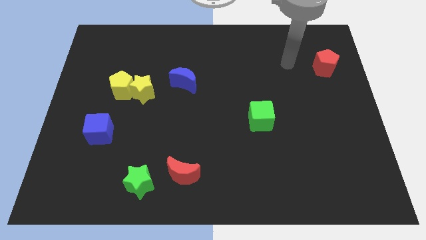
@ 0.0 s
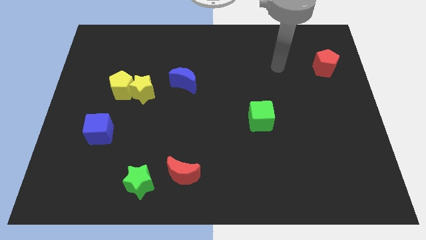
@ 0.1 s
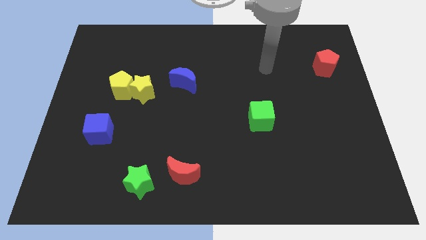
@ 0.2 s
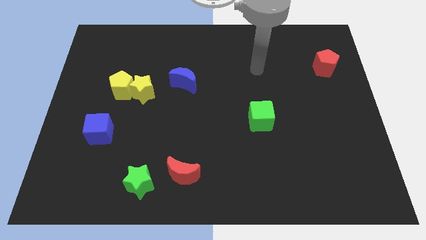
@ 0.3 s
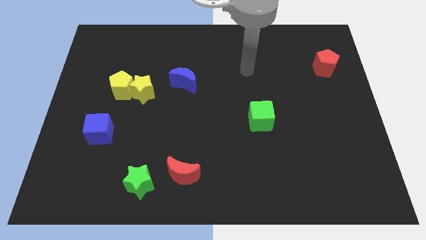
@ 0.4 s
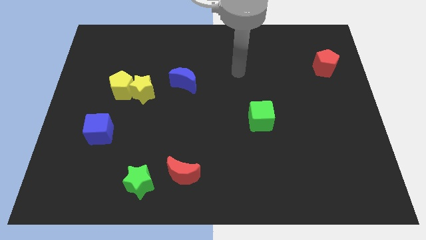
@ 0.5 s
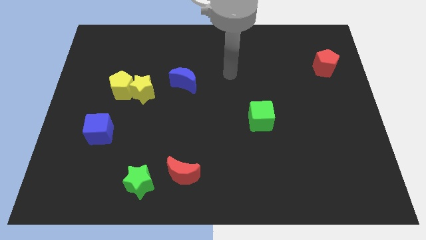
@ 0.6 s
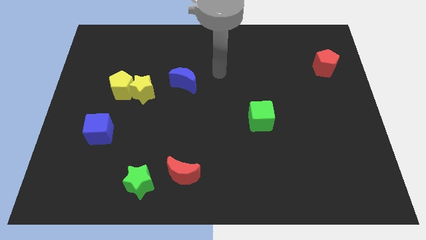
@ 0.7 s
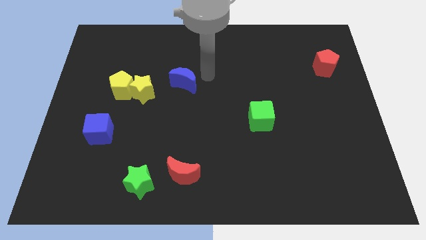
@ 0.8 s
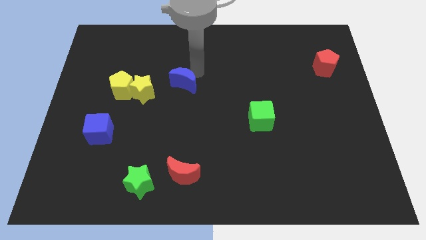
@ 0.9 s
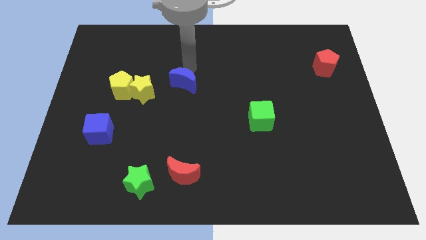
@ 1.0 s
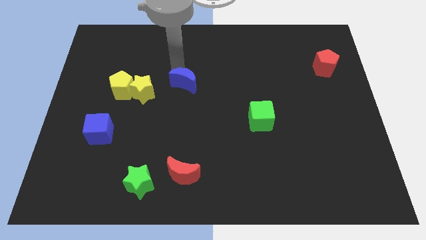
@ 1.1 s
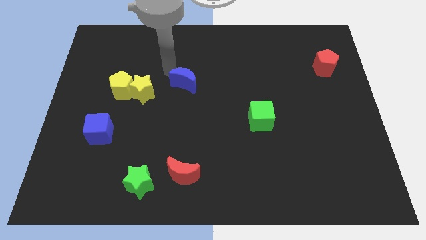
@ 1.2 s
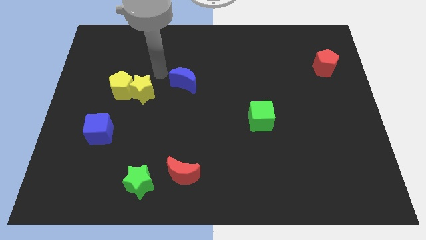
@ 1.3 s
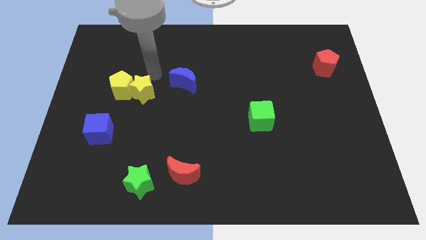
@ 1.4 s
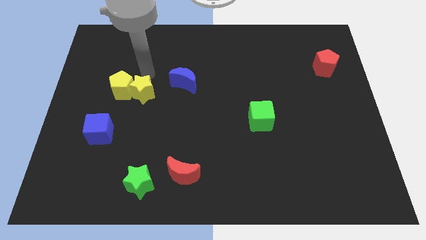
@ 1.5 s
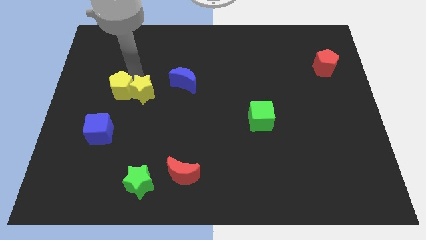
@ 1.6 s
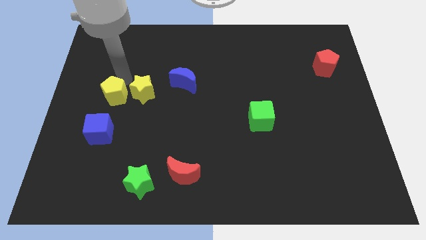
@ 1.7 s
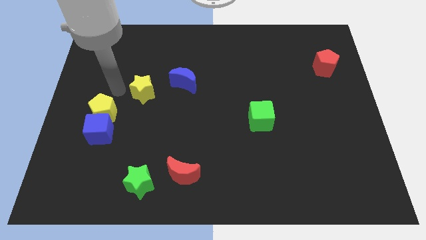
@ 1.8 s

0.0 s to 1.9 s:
move the yellow star away from the yellow pentagon

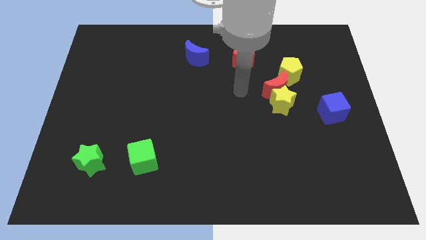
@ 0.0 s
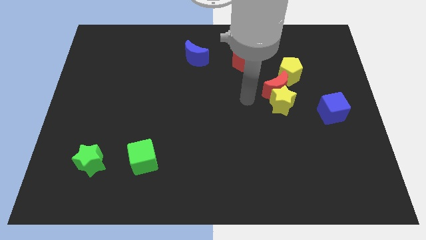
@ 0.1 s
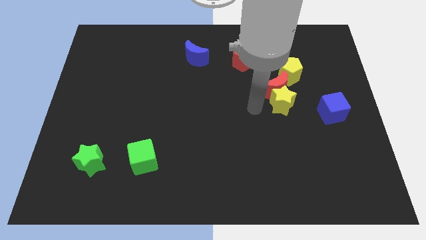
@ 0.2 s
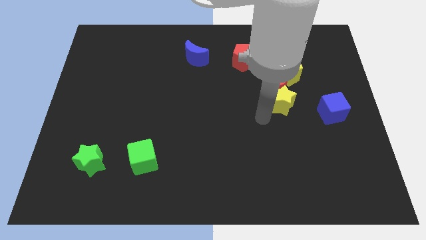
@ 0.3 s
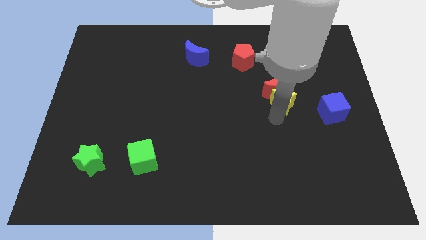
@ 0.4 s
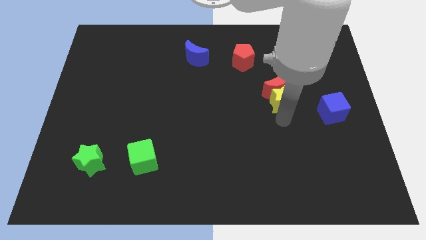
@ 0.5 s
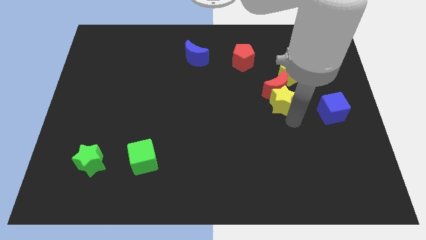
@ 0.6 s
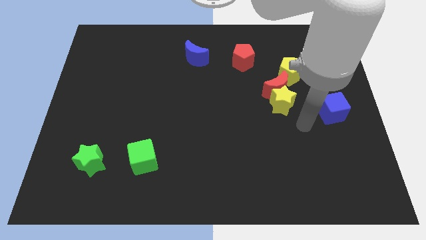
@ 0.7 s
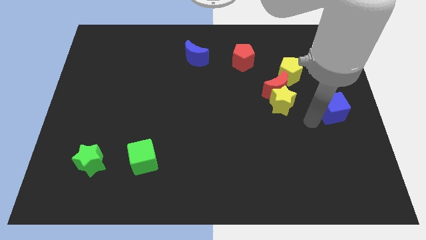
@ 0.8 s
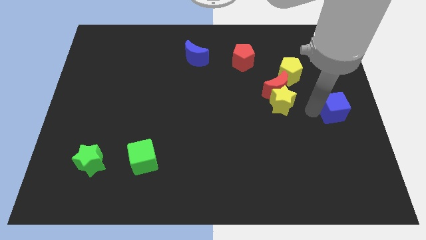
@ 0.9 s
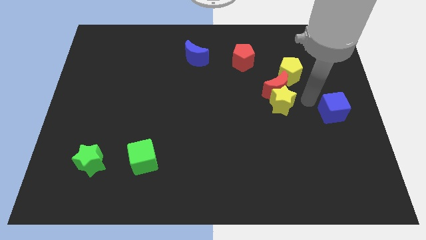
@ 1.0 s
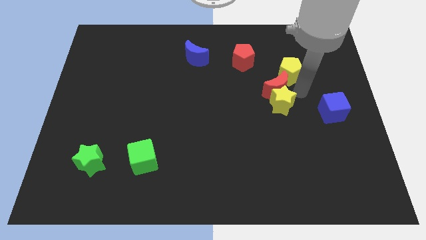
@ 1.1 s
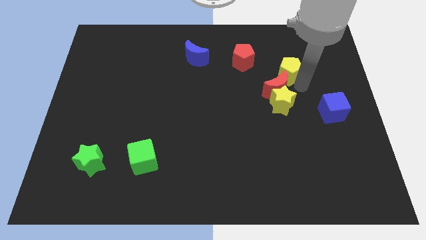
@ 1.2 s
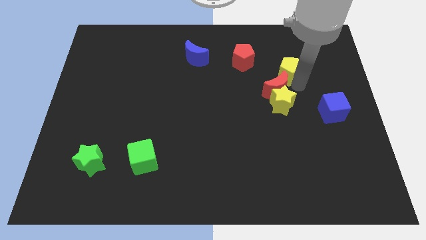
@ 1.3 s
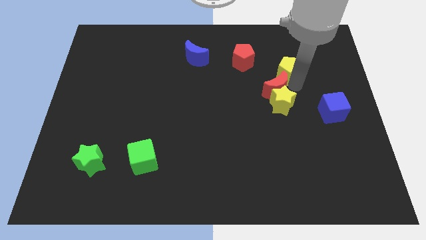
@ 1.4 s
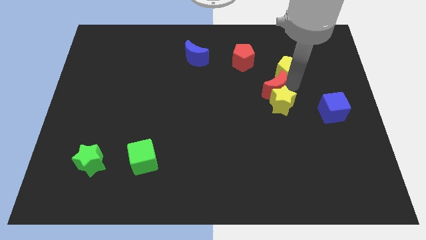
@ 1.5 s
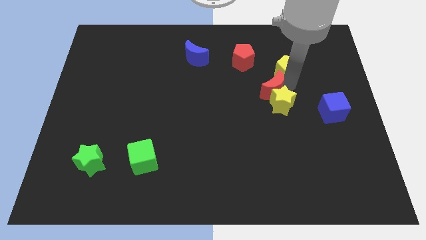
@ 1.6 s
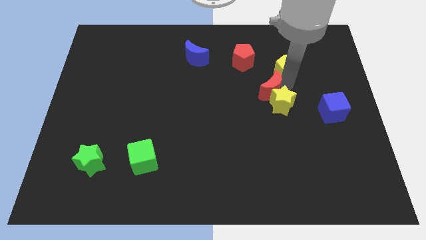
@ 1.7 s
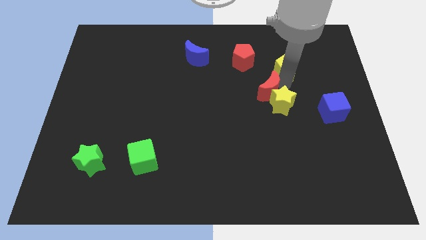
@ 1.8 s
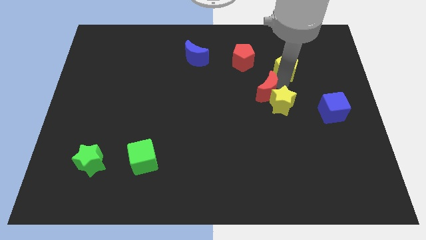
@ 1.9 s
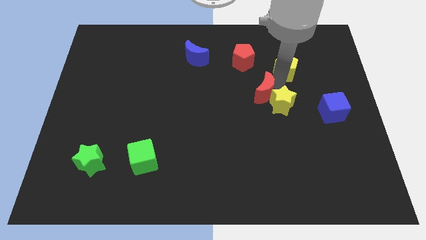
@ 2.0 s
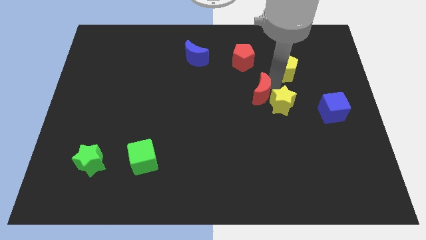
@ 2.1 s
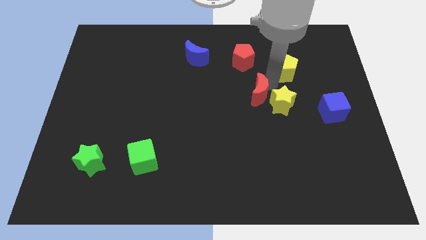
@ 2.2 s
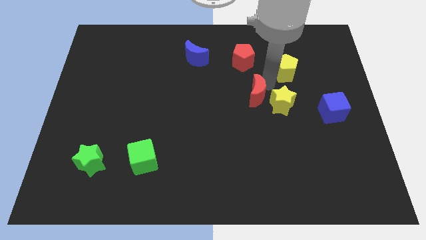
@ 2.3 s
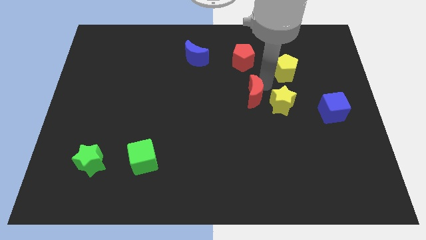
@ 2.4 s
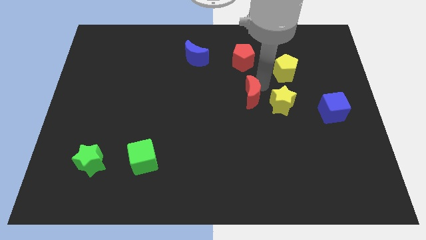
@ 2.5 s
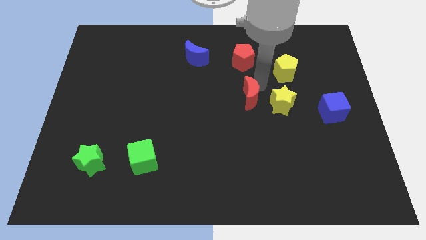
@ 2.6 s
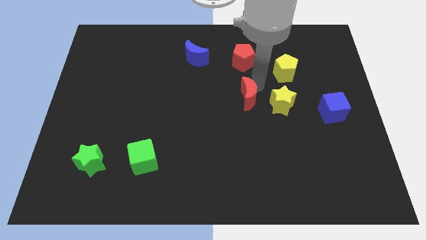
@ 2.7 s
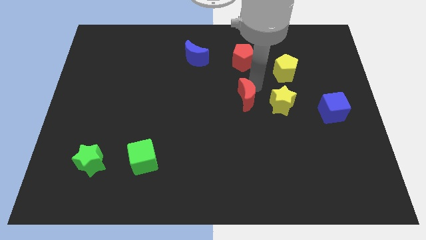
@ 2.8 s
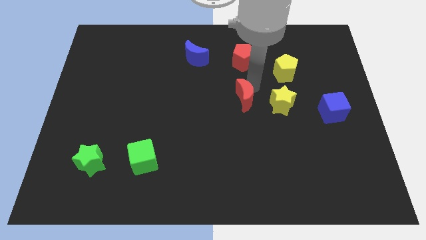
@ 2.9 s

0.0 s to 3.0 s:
move the red moon away from the yellow star and yellow pentagon

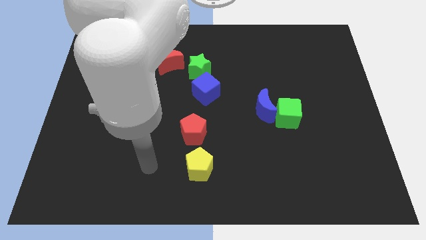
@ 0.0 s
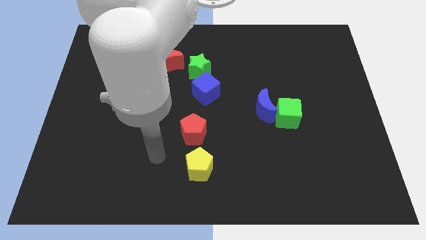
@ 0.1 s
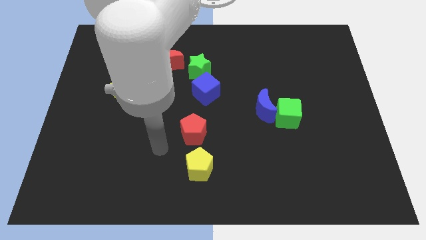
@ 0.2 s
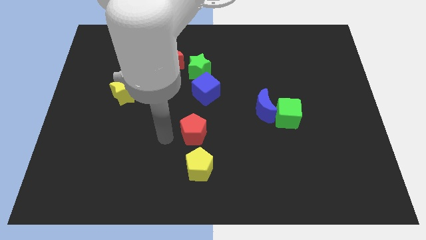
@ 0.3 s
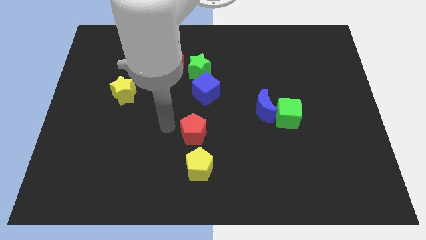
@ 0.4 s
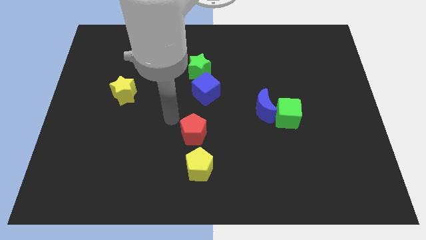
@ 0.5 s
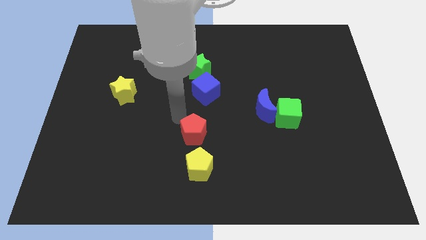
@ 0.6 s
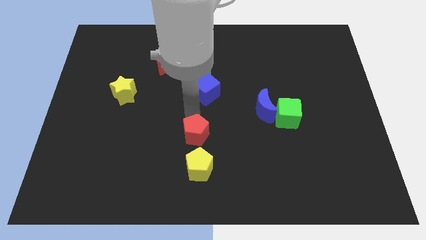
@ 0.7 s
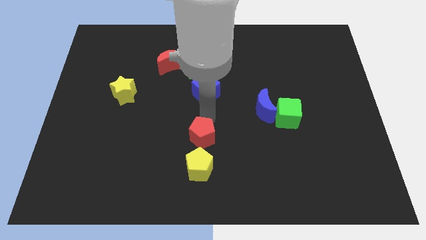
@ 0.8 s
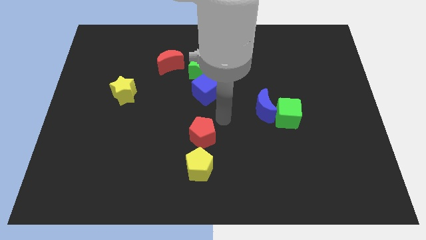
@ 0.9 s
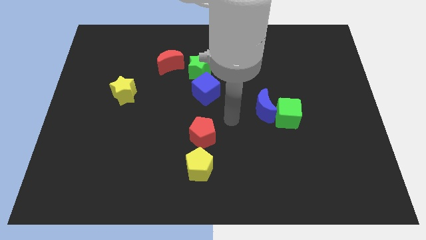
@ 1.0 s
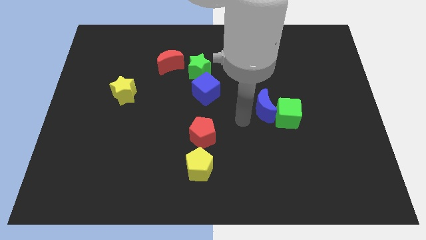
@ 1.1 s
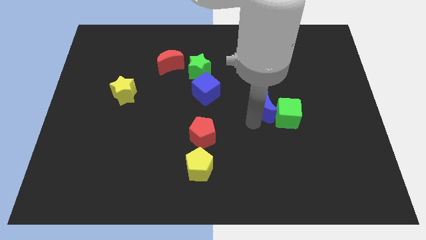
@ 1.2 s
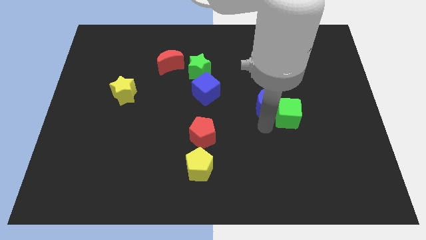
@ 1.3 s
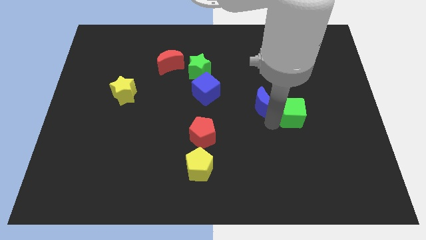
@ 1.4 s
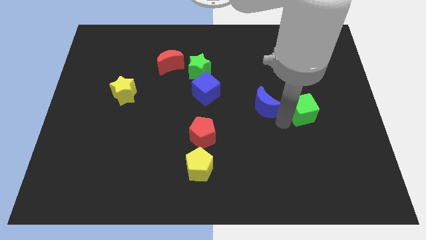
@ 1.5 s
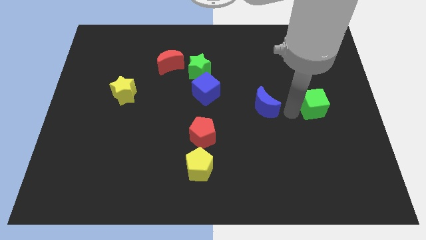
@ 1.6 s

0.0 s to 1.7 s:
move the blue moon away from the green cube

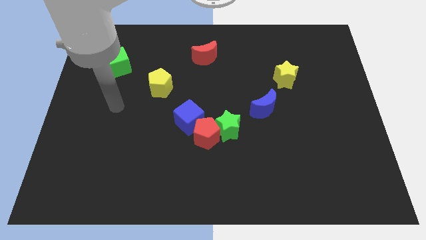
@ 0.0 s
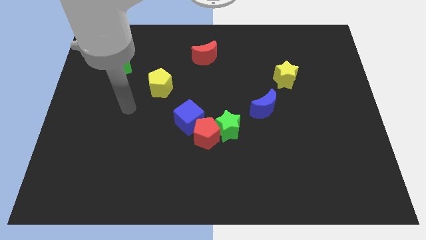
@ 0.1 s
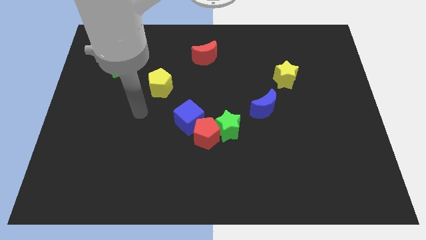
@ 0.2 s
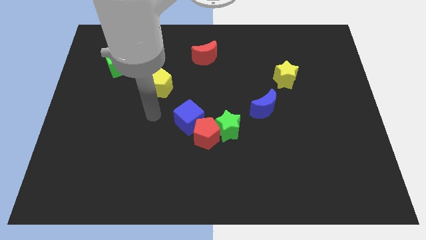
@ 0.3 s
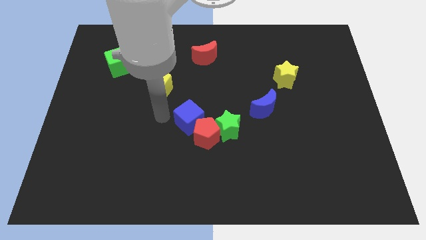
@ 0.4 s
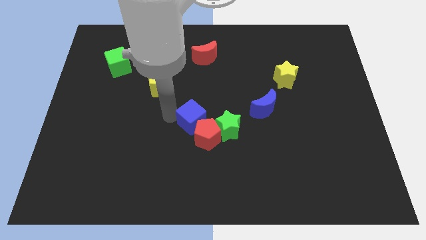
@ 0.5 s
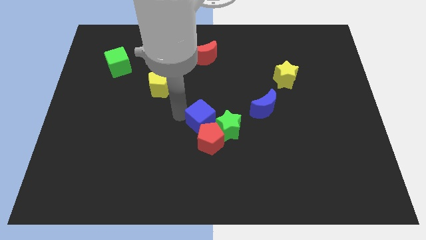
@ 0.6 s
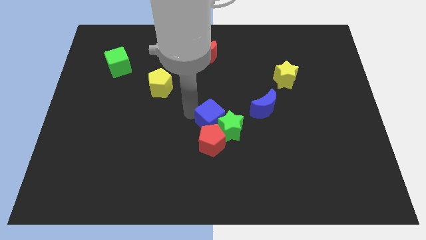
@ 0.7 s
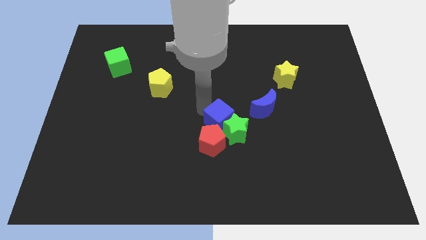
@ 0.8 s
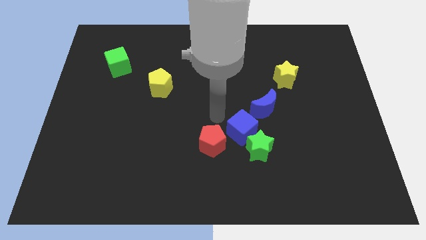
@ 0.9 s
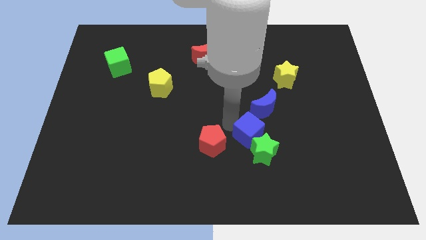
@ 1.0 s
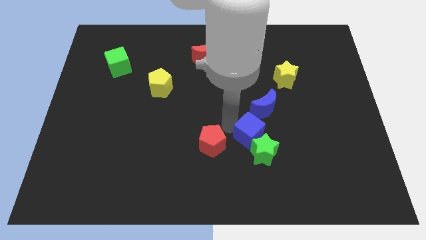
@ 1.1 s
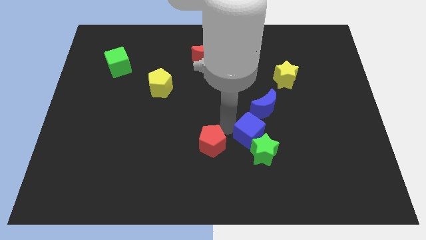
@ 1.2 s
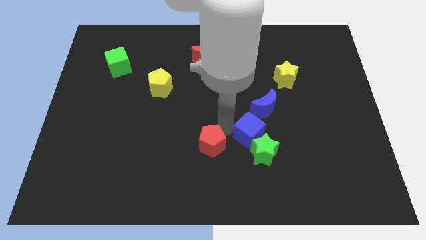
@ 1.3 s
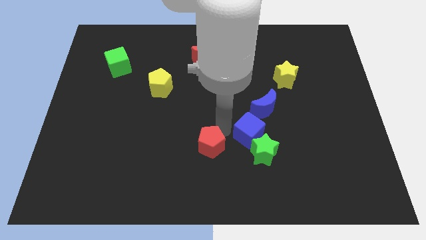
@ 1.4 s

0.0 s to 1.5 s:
separate the red pentagon from the green star and blue cube

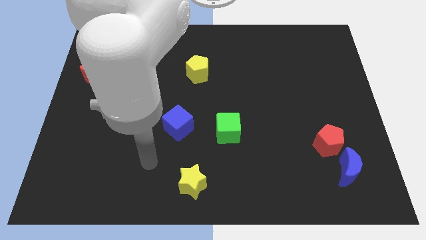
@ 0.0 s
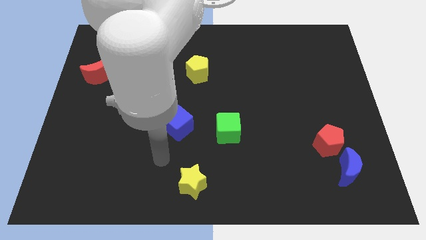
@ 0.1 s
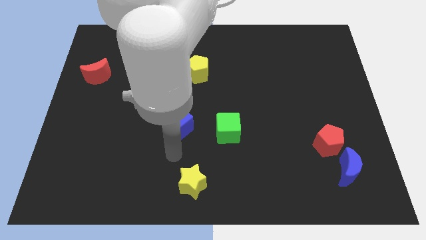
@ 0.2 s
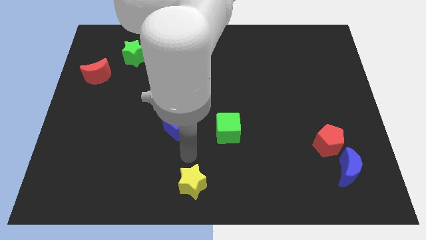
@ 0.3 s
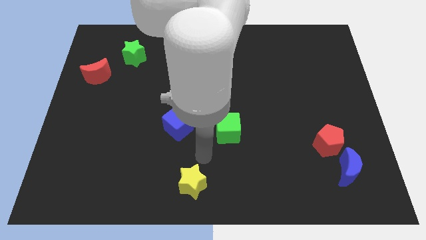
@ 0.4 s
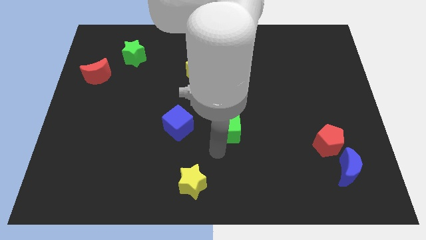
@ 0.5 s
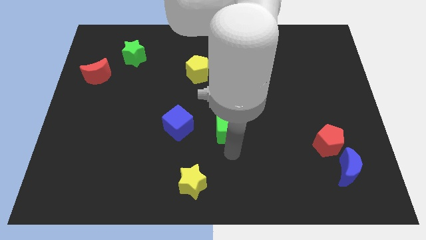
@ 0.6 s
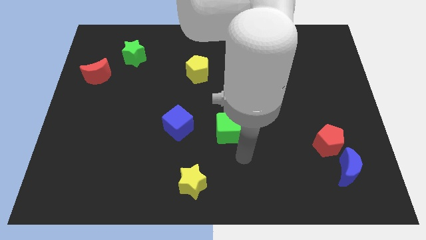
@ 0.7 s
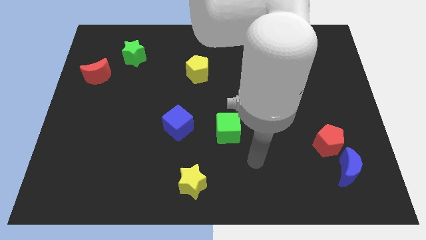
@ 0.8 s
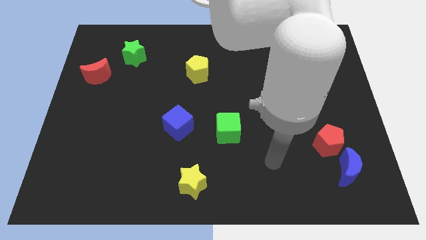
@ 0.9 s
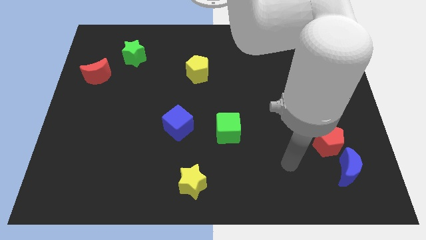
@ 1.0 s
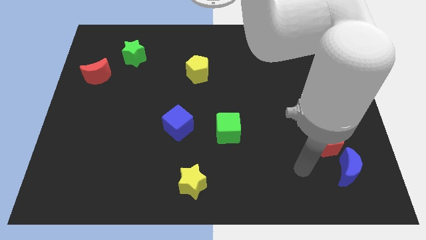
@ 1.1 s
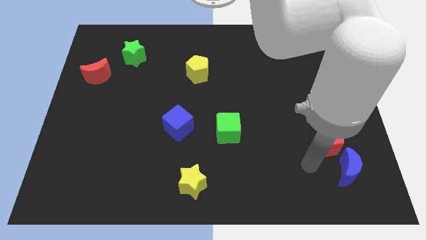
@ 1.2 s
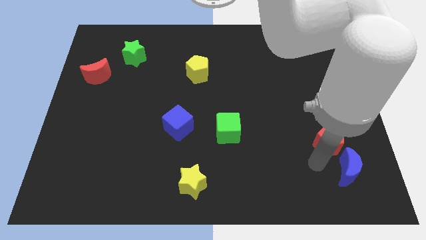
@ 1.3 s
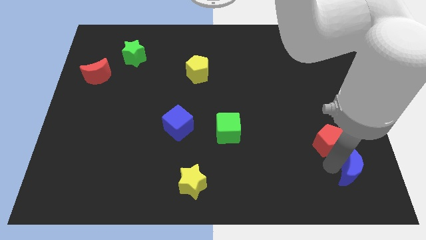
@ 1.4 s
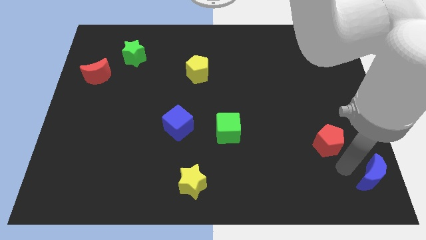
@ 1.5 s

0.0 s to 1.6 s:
separate the red pentagon from the blue moon
